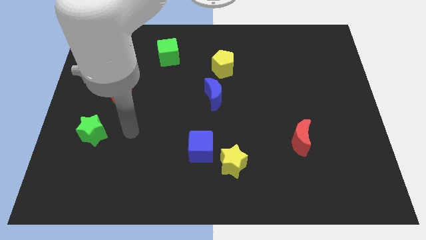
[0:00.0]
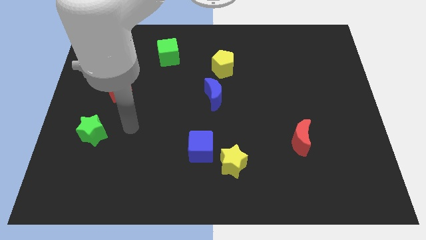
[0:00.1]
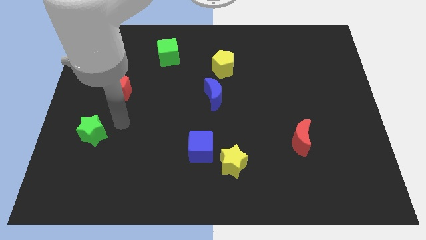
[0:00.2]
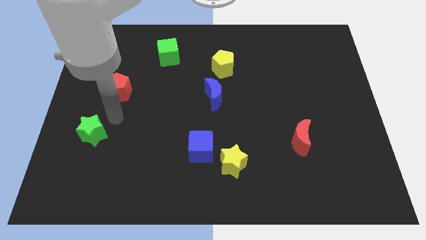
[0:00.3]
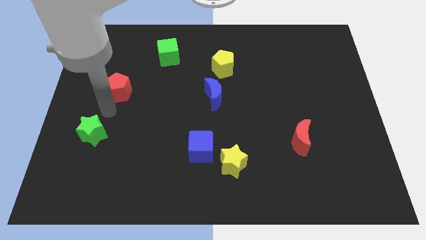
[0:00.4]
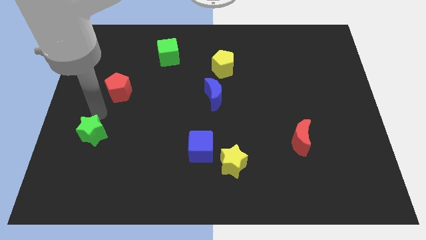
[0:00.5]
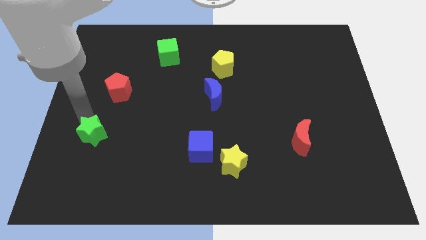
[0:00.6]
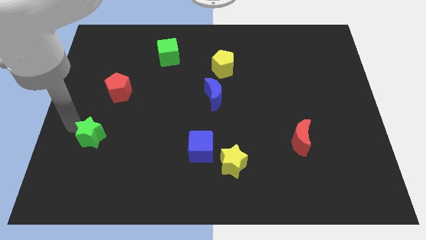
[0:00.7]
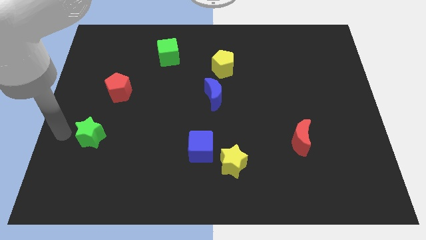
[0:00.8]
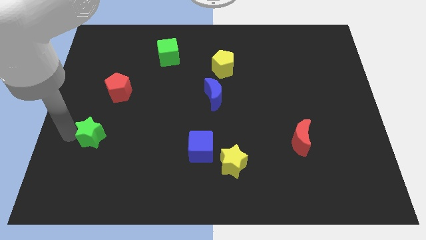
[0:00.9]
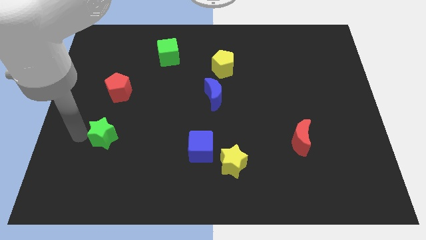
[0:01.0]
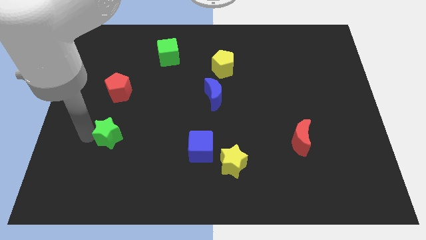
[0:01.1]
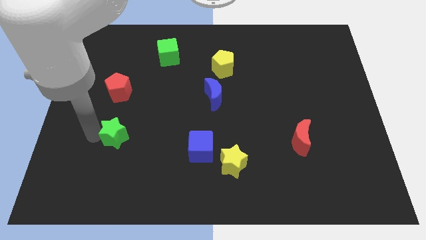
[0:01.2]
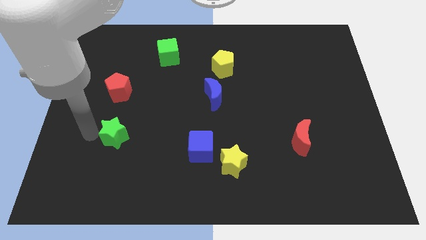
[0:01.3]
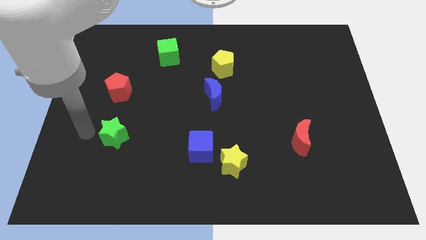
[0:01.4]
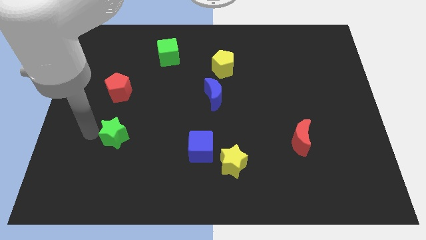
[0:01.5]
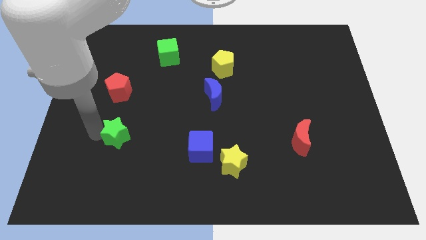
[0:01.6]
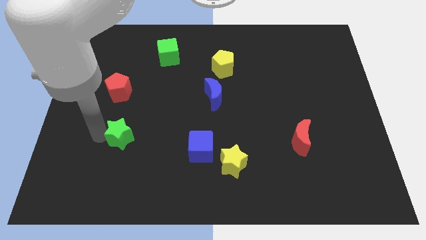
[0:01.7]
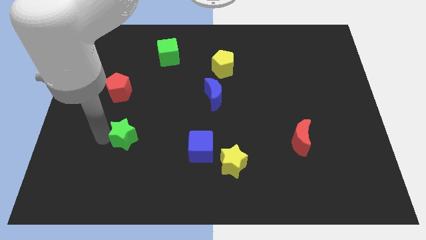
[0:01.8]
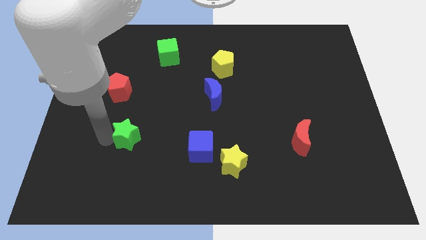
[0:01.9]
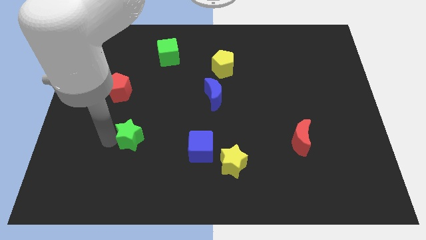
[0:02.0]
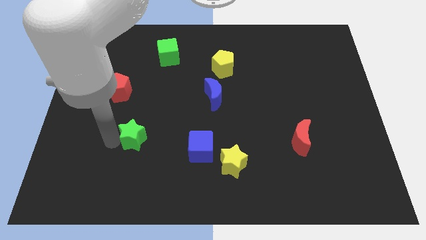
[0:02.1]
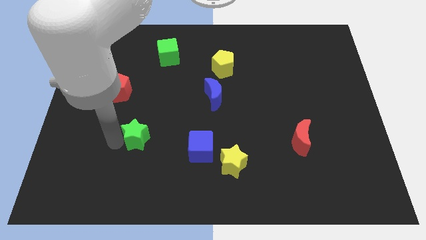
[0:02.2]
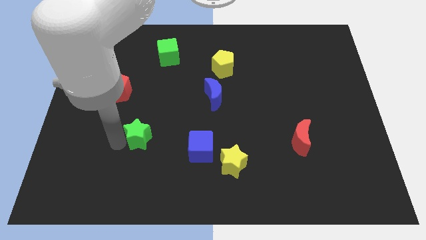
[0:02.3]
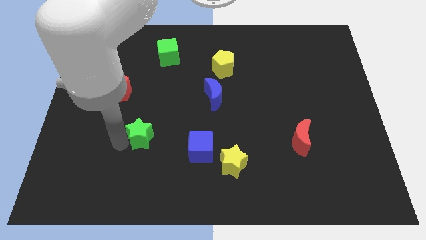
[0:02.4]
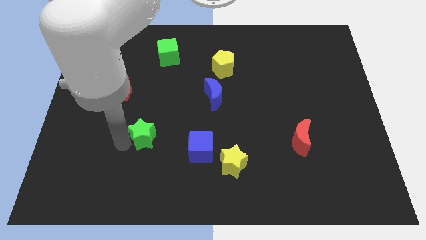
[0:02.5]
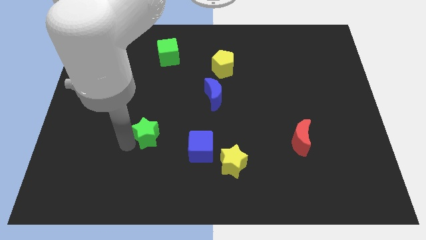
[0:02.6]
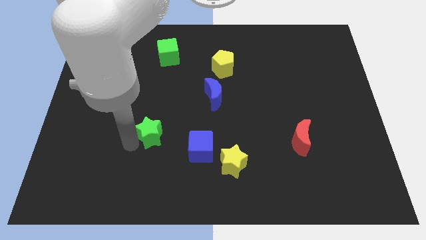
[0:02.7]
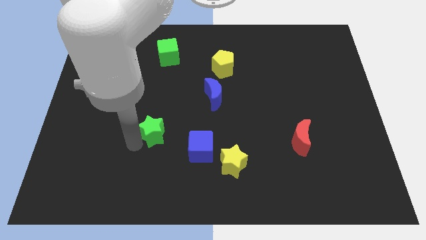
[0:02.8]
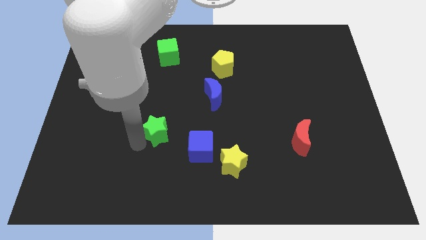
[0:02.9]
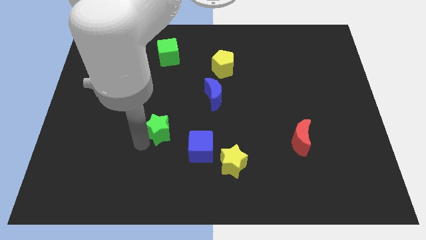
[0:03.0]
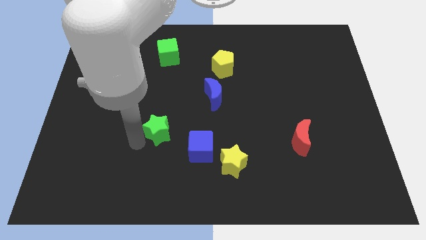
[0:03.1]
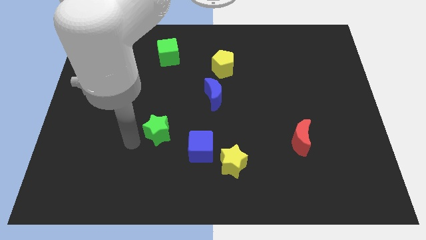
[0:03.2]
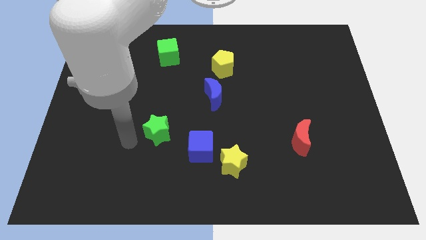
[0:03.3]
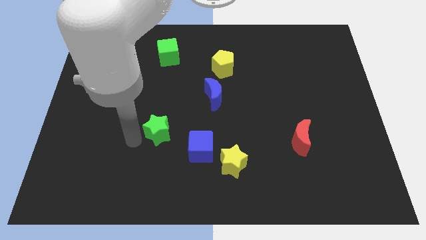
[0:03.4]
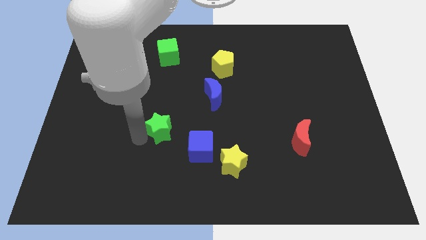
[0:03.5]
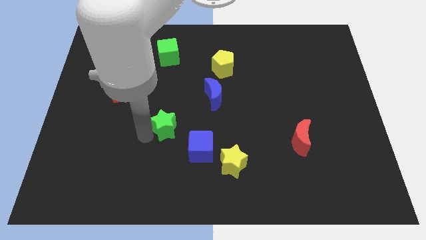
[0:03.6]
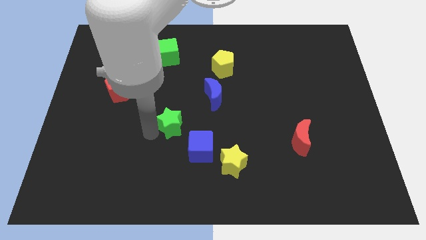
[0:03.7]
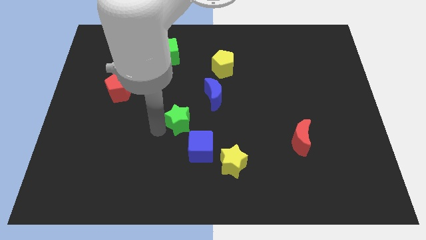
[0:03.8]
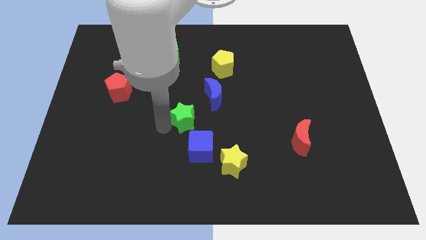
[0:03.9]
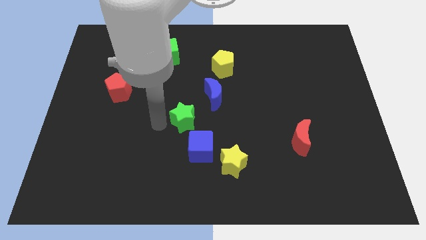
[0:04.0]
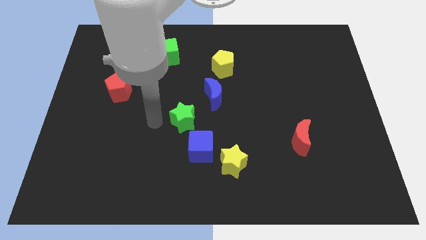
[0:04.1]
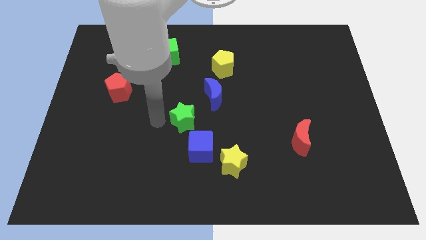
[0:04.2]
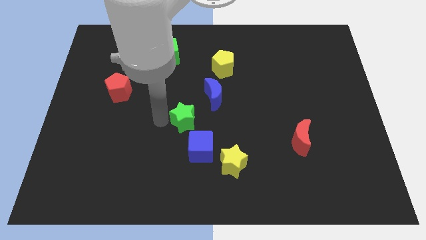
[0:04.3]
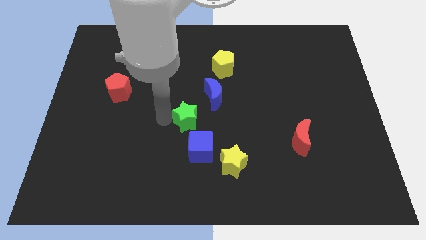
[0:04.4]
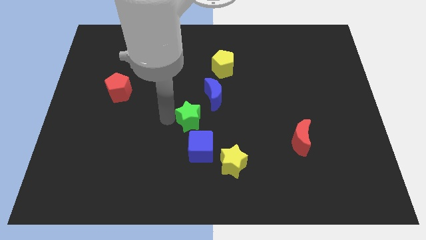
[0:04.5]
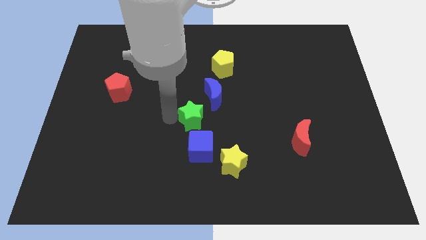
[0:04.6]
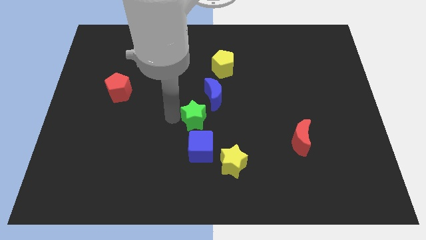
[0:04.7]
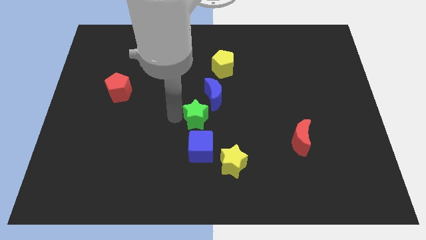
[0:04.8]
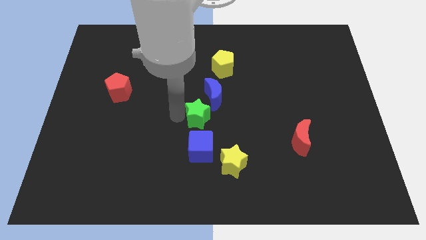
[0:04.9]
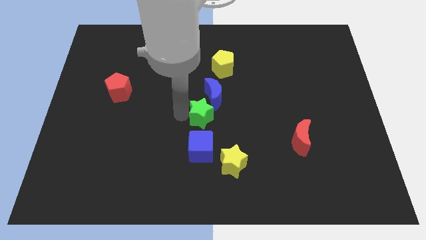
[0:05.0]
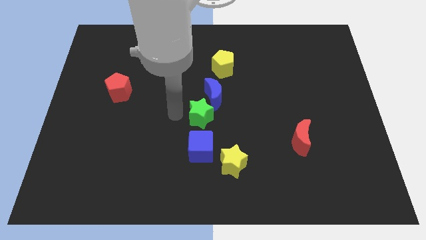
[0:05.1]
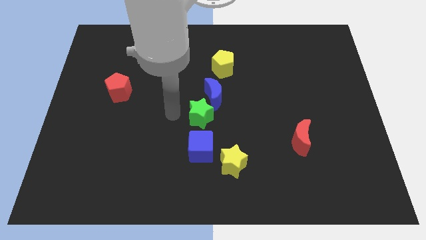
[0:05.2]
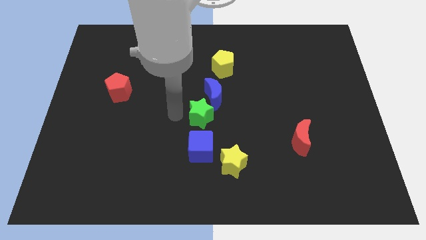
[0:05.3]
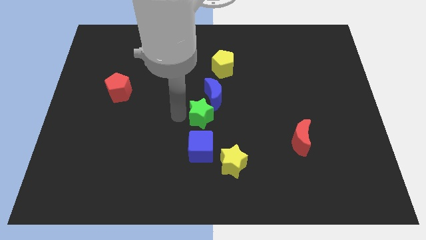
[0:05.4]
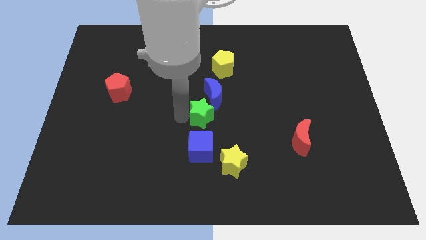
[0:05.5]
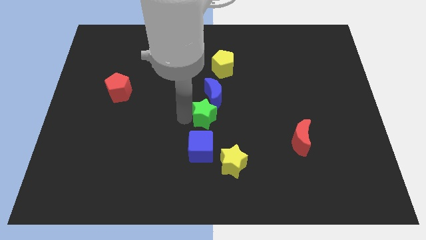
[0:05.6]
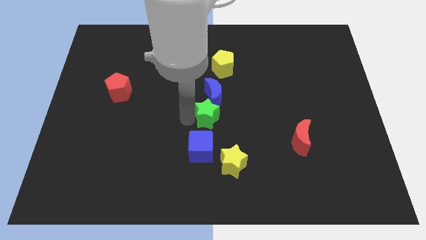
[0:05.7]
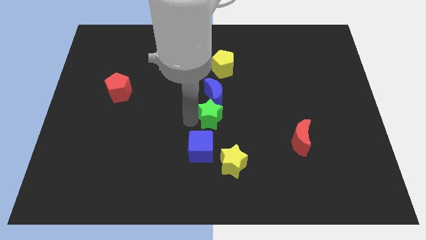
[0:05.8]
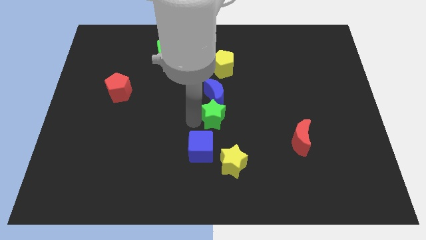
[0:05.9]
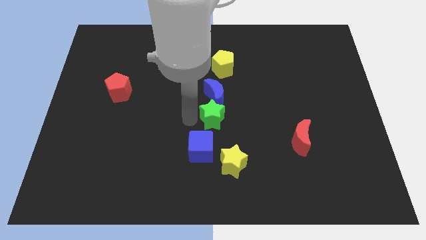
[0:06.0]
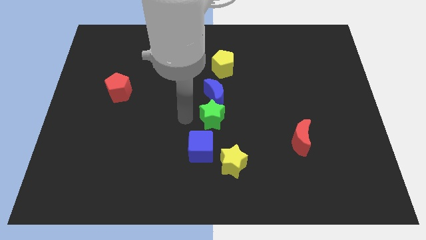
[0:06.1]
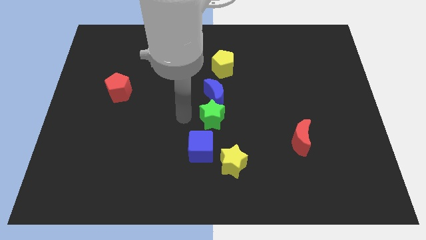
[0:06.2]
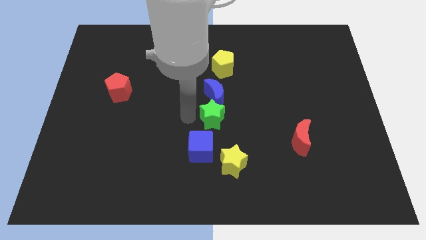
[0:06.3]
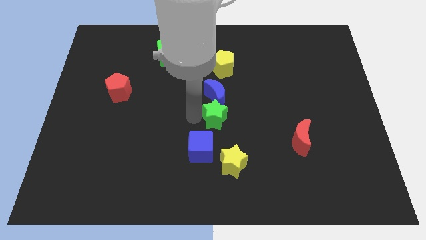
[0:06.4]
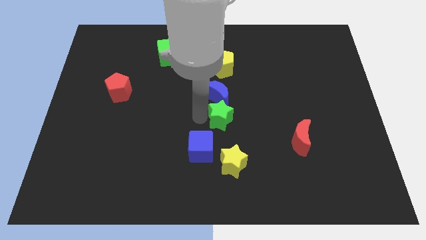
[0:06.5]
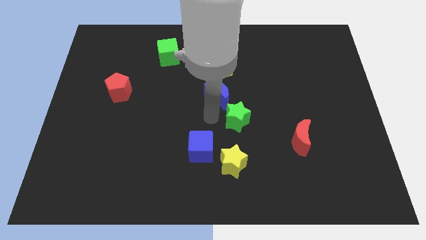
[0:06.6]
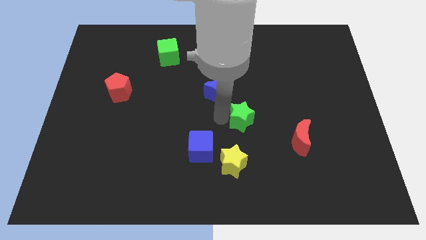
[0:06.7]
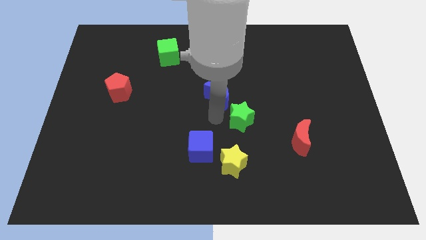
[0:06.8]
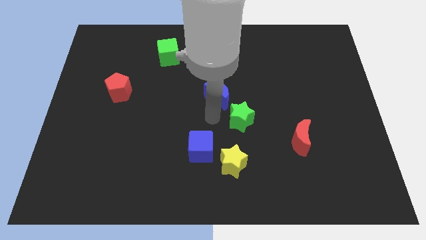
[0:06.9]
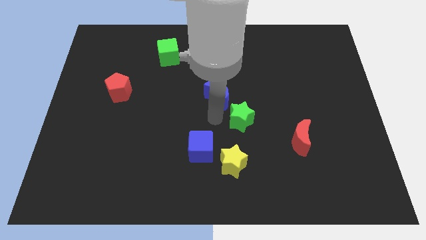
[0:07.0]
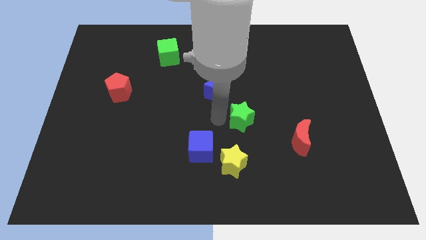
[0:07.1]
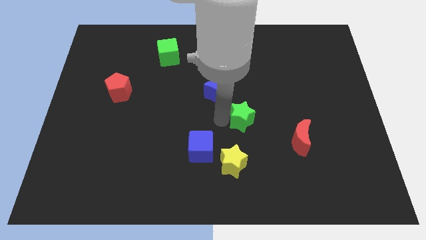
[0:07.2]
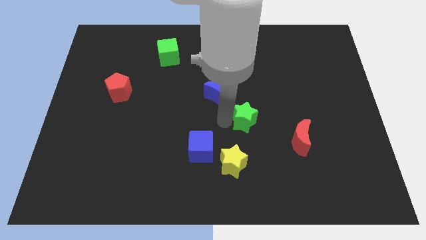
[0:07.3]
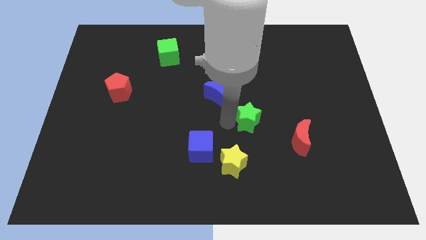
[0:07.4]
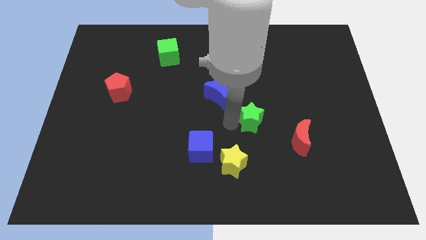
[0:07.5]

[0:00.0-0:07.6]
push the green star to the top left side of the red moon
